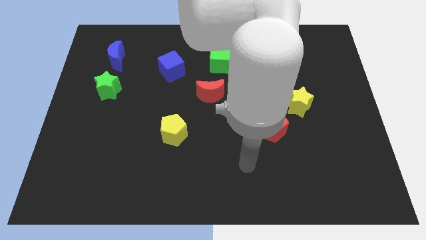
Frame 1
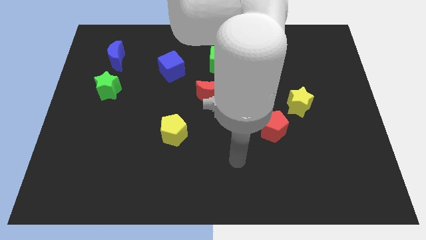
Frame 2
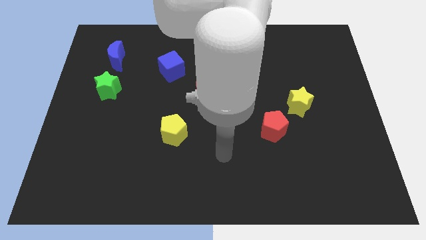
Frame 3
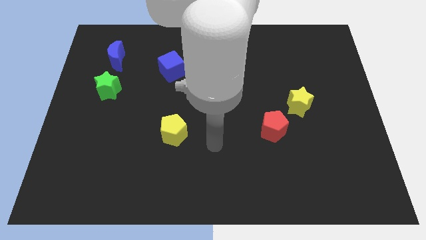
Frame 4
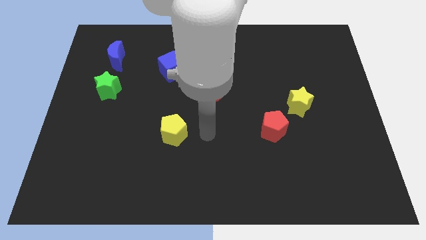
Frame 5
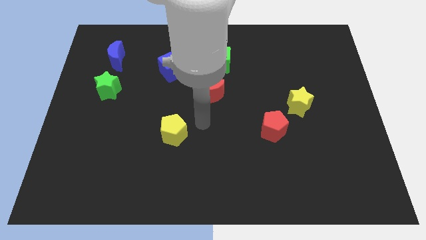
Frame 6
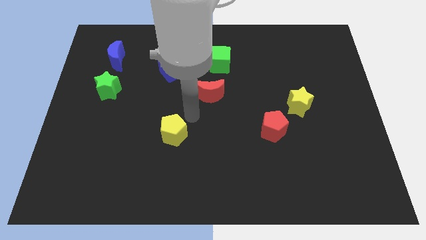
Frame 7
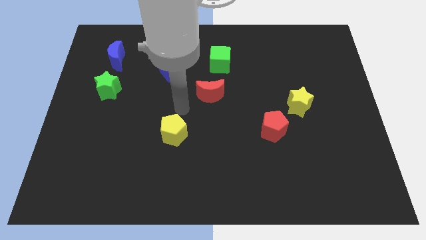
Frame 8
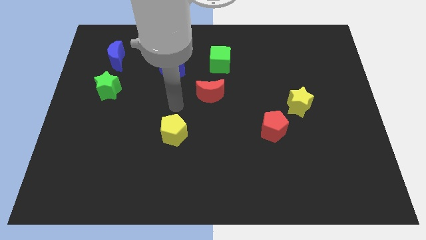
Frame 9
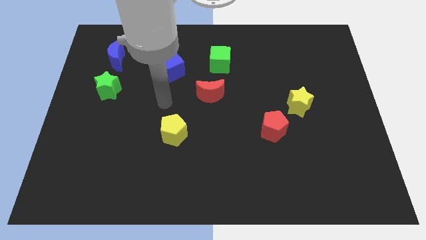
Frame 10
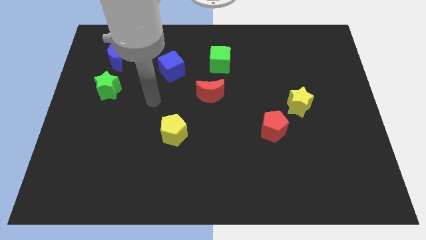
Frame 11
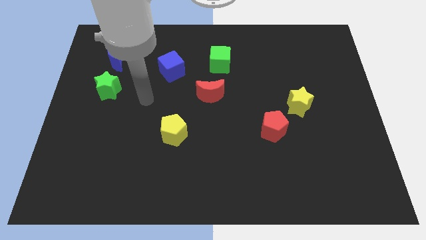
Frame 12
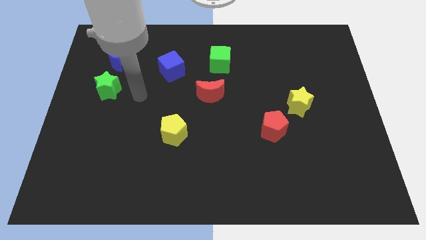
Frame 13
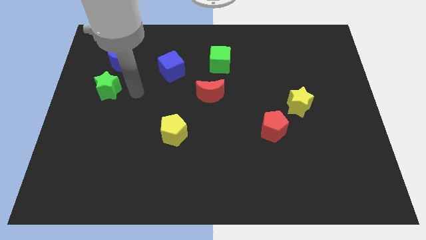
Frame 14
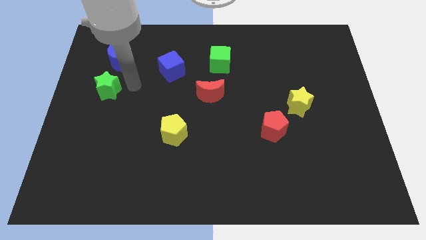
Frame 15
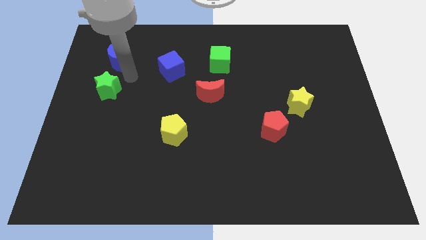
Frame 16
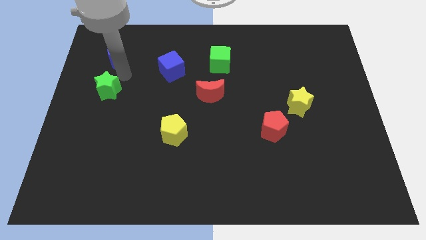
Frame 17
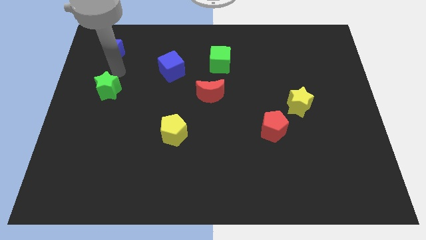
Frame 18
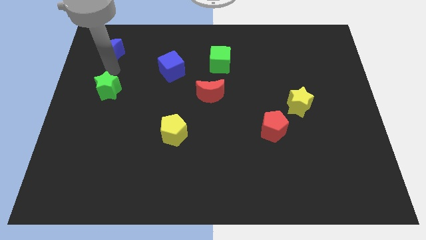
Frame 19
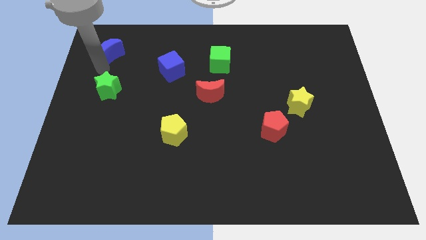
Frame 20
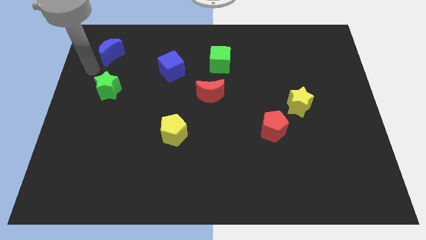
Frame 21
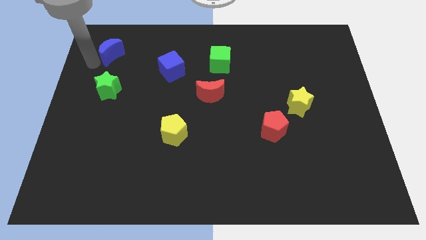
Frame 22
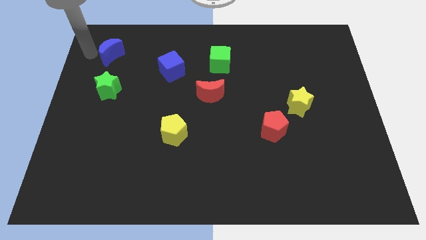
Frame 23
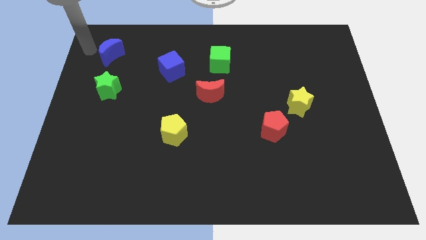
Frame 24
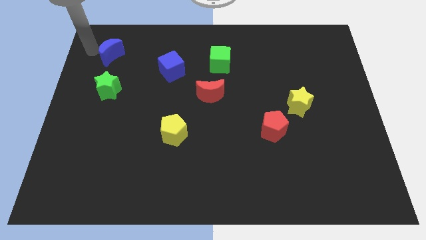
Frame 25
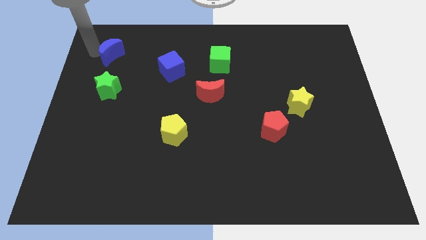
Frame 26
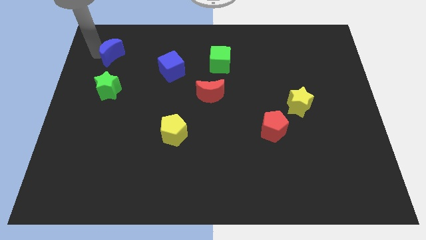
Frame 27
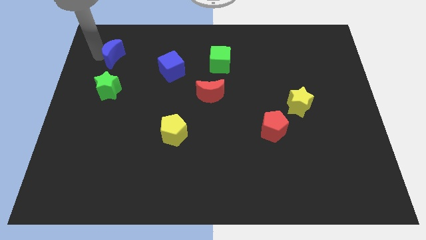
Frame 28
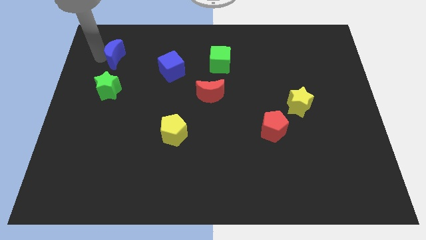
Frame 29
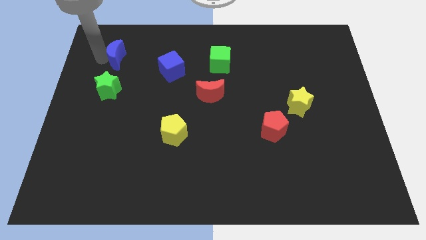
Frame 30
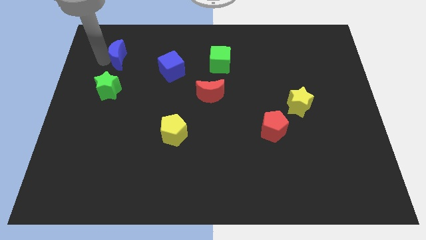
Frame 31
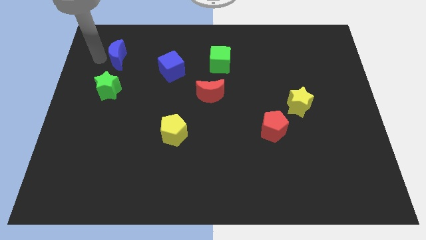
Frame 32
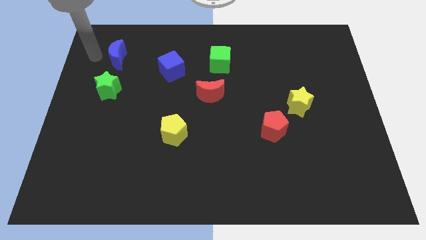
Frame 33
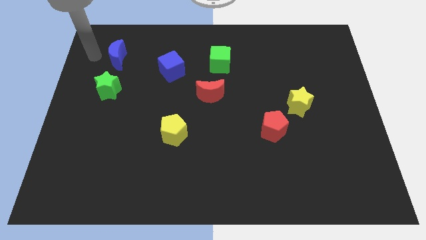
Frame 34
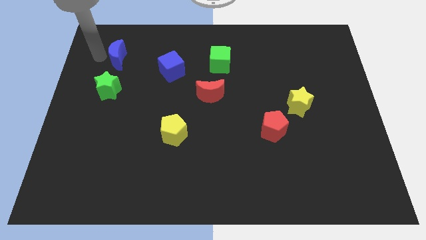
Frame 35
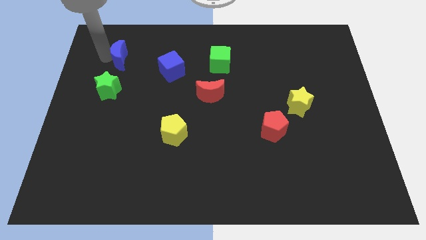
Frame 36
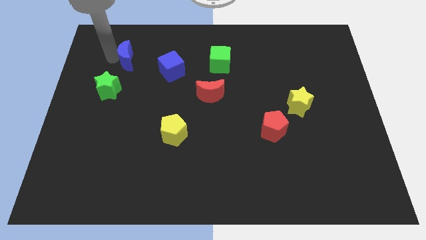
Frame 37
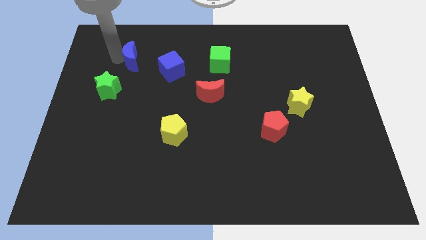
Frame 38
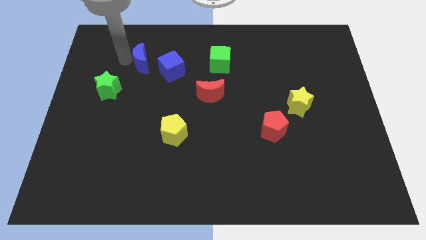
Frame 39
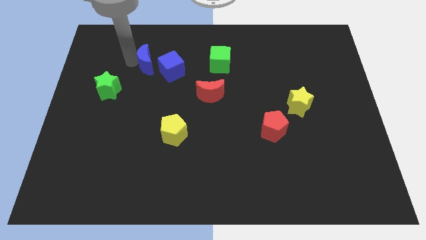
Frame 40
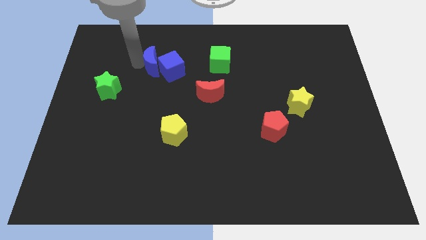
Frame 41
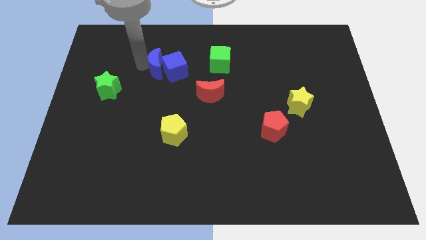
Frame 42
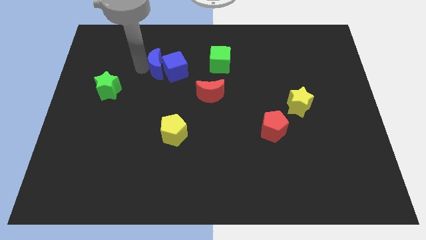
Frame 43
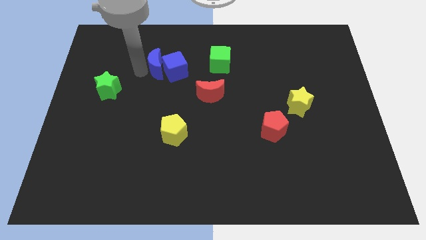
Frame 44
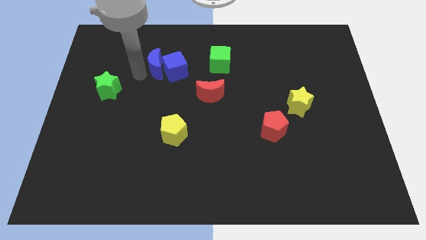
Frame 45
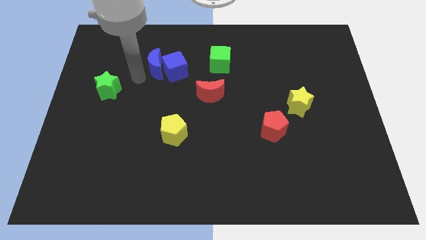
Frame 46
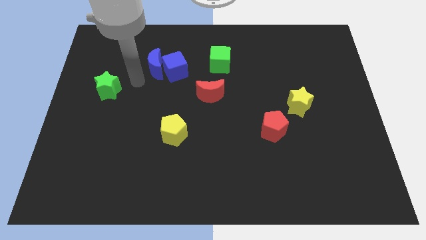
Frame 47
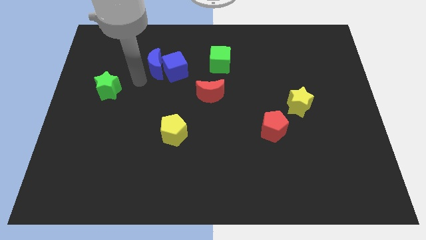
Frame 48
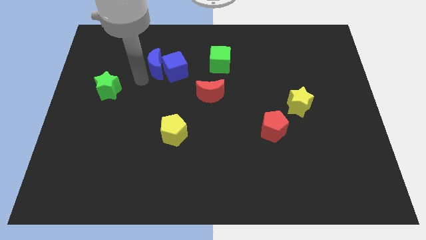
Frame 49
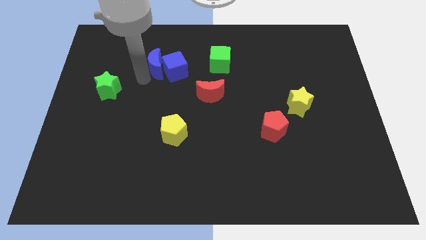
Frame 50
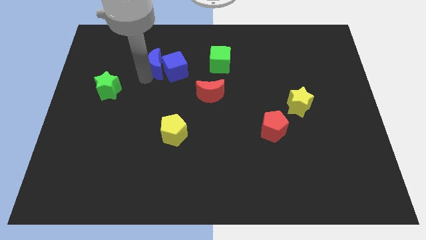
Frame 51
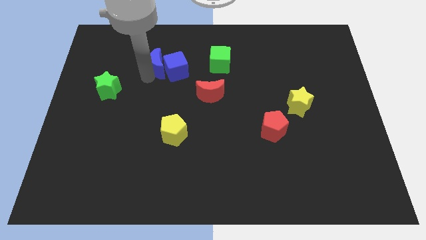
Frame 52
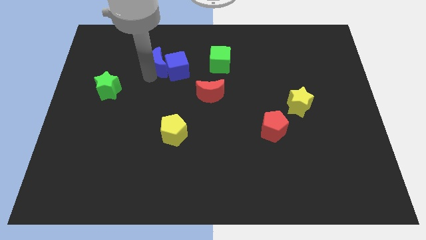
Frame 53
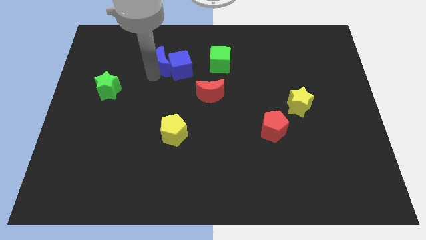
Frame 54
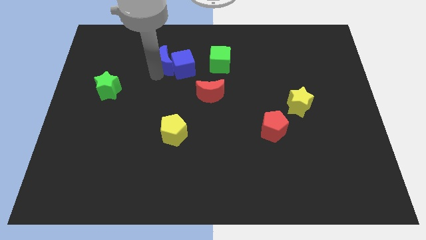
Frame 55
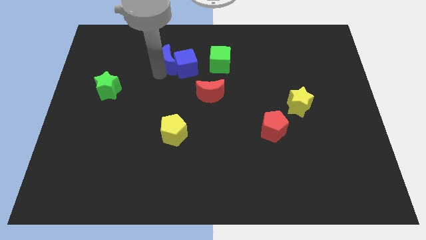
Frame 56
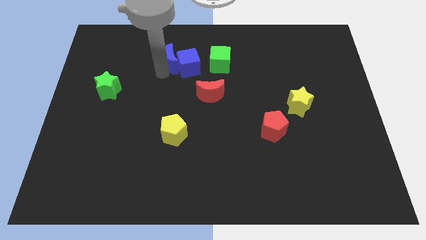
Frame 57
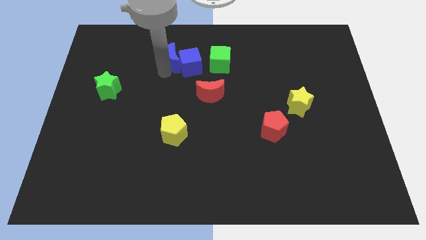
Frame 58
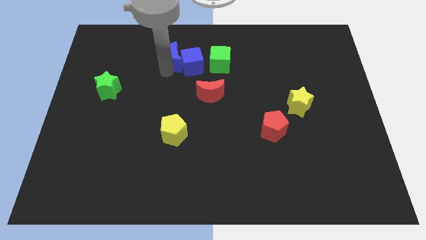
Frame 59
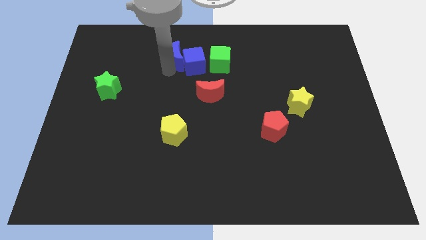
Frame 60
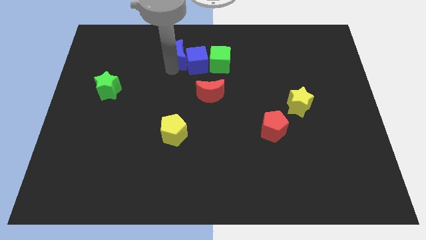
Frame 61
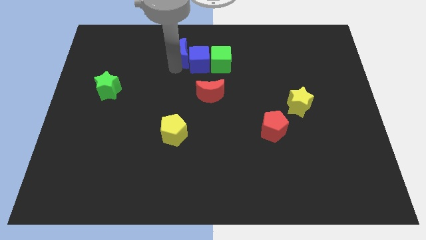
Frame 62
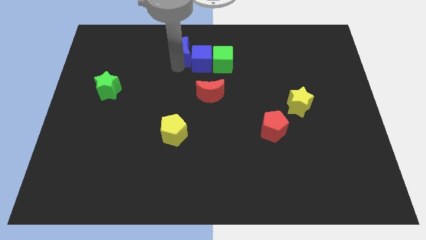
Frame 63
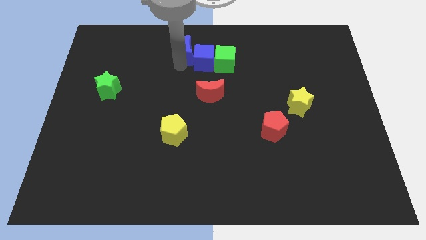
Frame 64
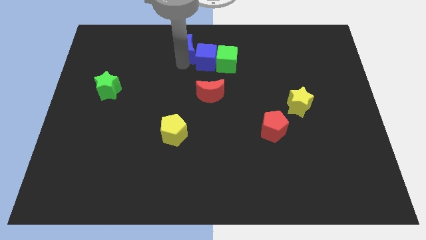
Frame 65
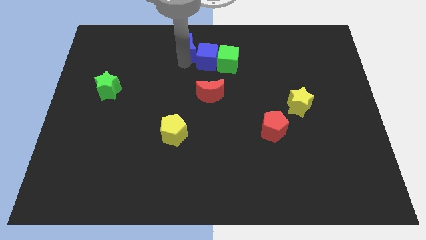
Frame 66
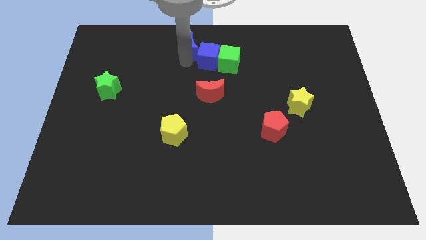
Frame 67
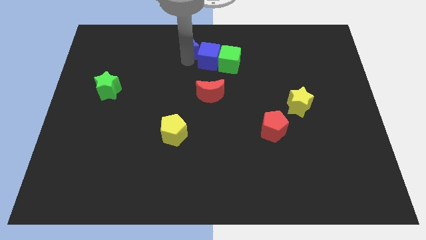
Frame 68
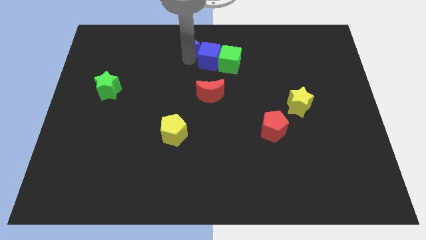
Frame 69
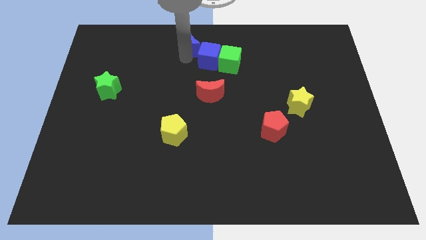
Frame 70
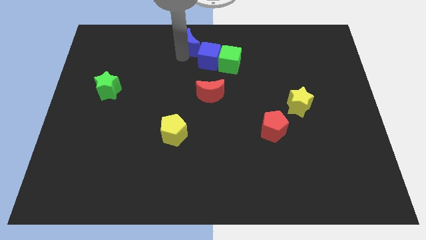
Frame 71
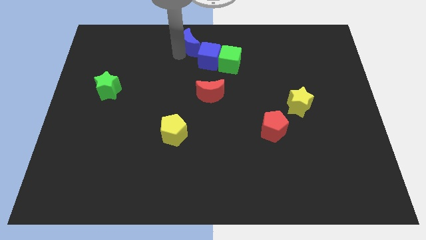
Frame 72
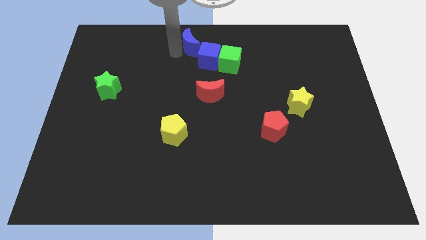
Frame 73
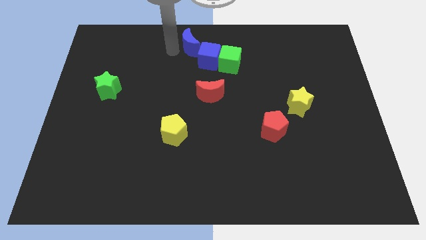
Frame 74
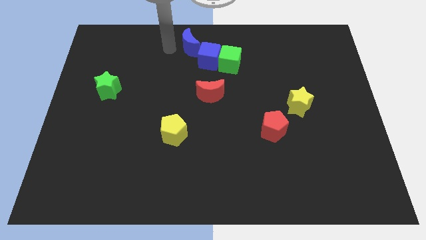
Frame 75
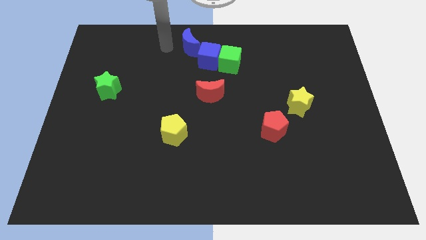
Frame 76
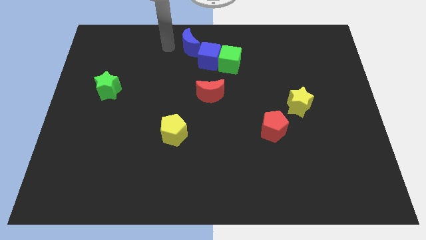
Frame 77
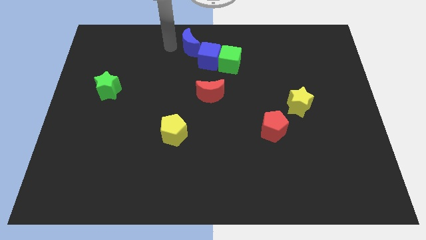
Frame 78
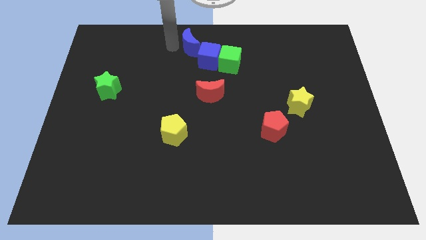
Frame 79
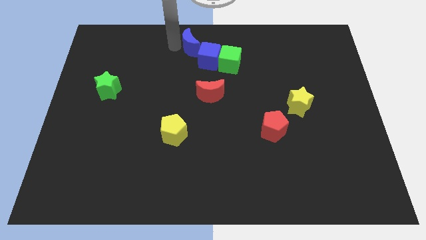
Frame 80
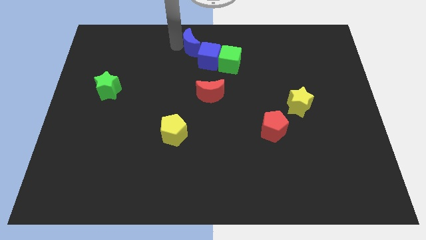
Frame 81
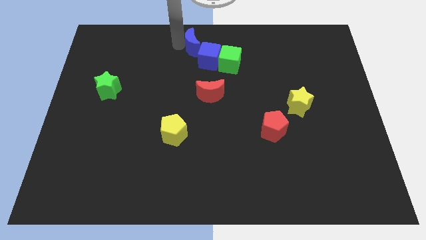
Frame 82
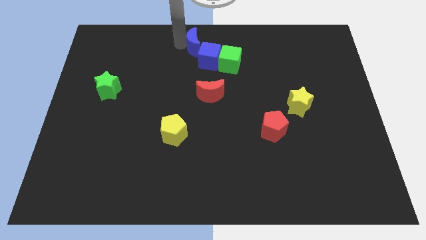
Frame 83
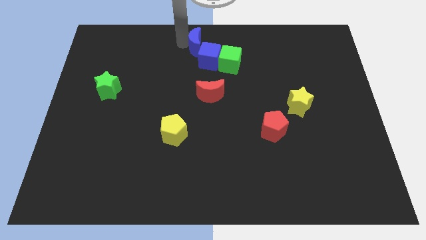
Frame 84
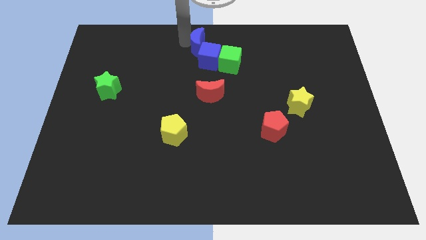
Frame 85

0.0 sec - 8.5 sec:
slide the blue moon right
